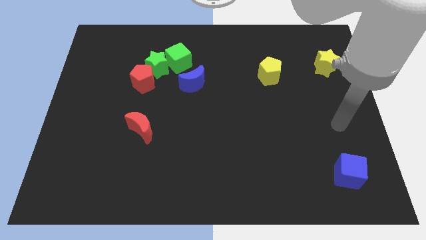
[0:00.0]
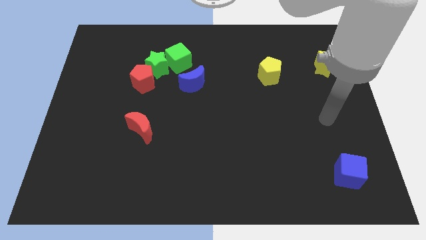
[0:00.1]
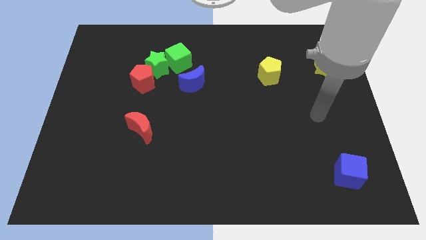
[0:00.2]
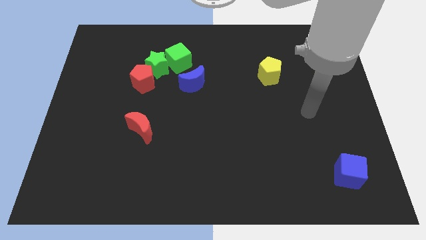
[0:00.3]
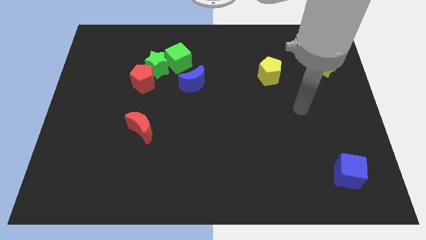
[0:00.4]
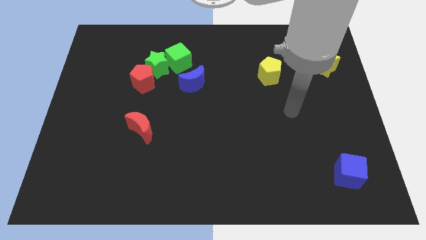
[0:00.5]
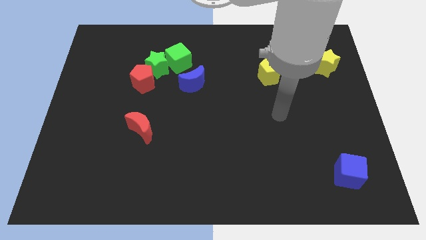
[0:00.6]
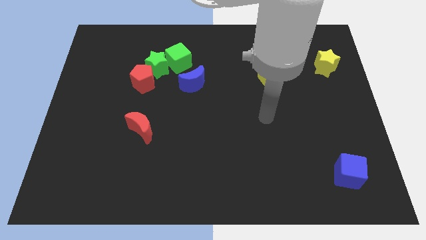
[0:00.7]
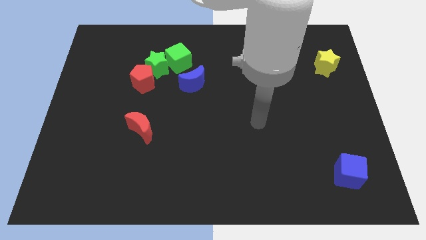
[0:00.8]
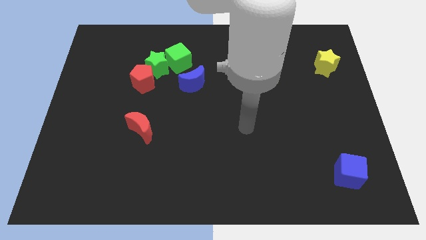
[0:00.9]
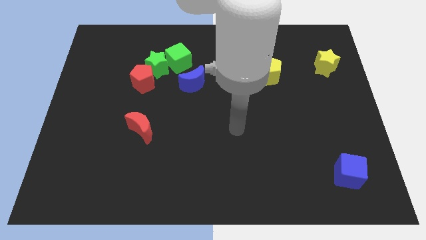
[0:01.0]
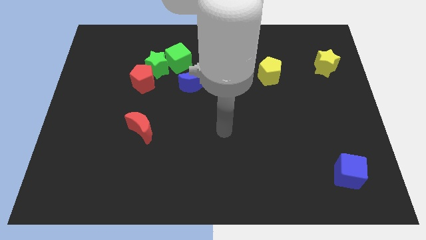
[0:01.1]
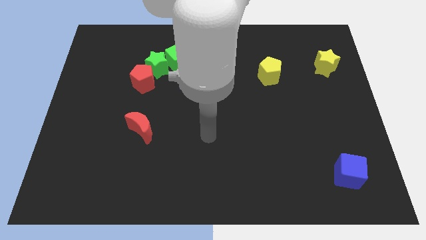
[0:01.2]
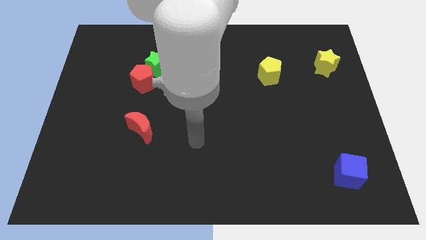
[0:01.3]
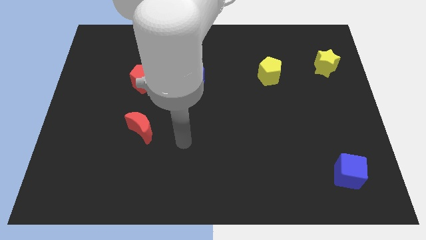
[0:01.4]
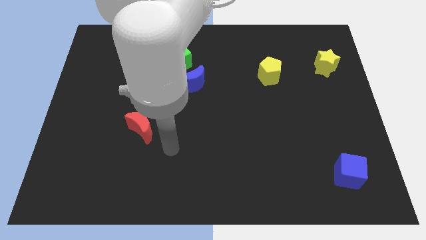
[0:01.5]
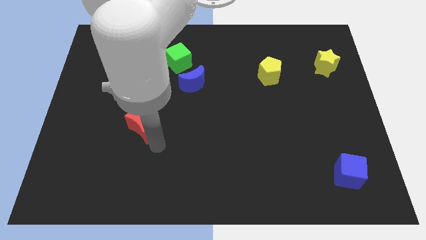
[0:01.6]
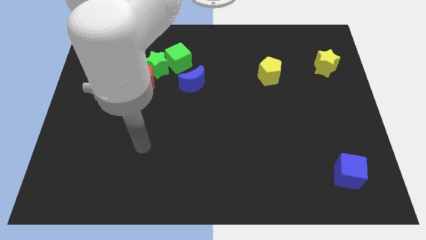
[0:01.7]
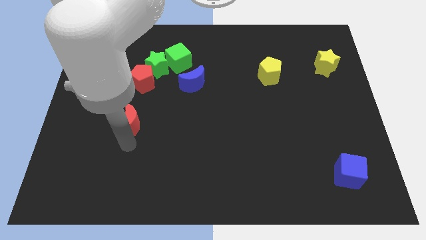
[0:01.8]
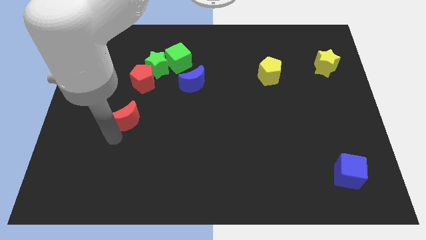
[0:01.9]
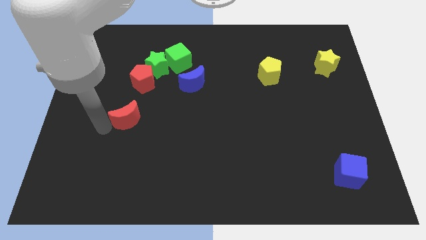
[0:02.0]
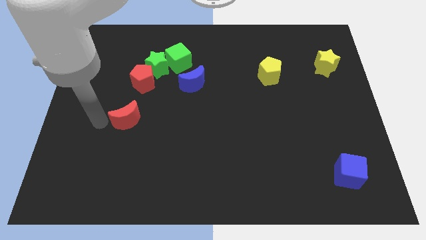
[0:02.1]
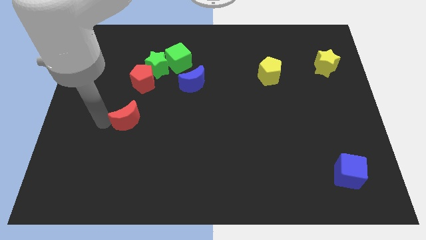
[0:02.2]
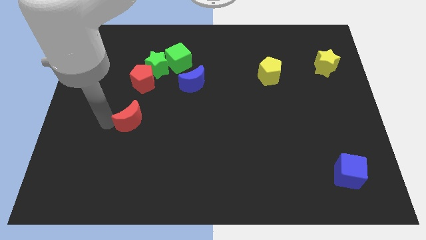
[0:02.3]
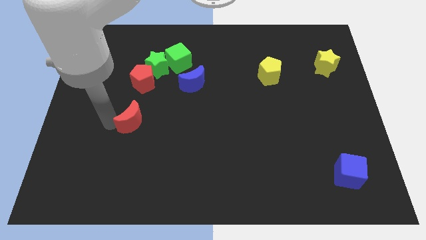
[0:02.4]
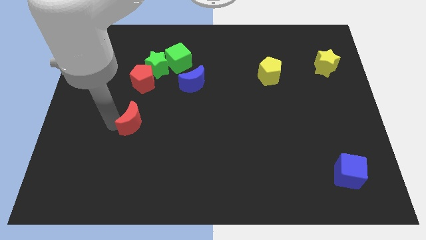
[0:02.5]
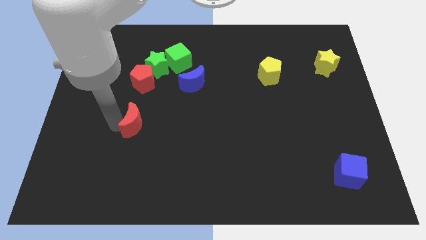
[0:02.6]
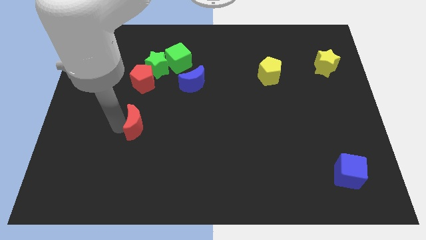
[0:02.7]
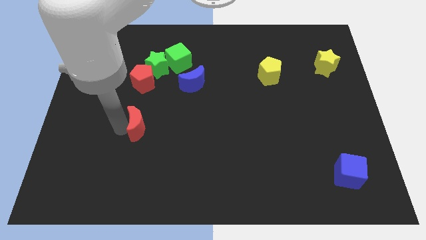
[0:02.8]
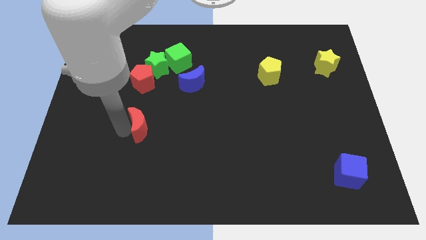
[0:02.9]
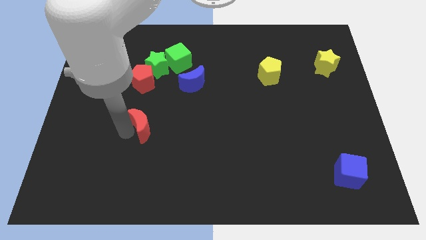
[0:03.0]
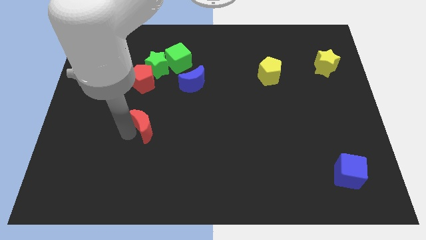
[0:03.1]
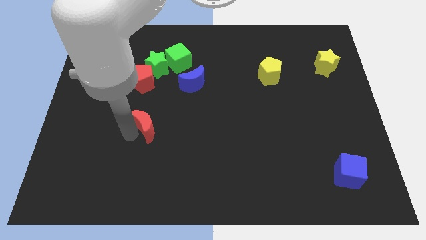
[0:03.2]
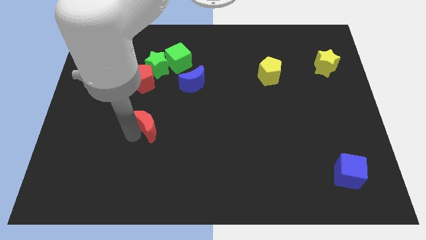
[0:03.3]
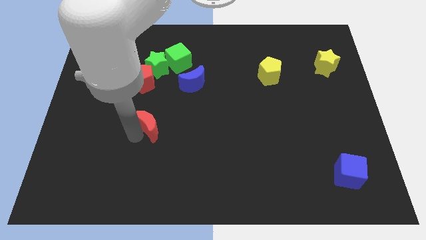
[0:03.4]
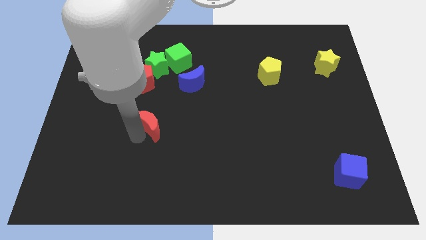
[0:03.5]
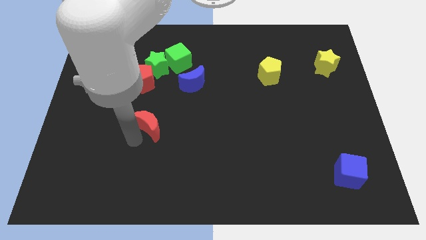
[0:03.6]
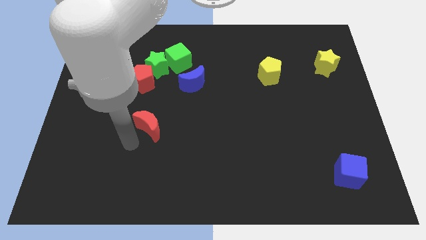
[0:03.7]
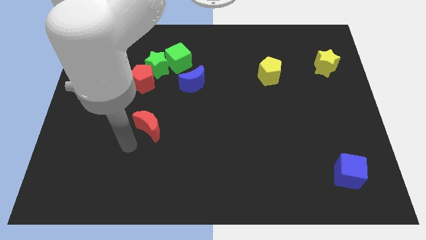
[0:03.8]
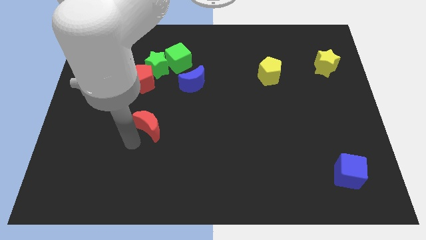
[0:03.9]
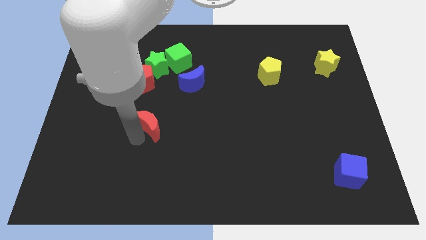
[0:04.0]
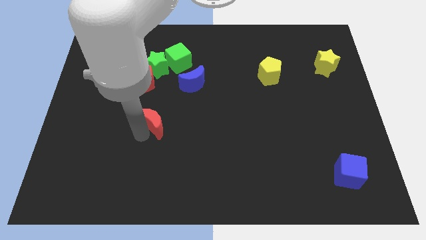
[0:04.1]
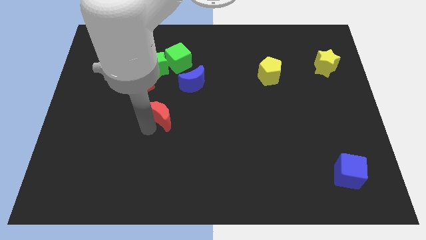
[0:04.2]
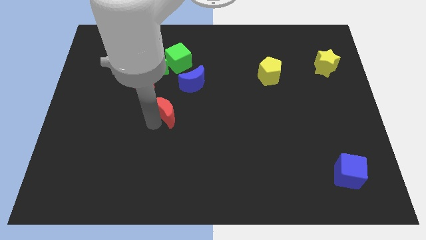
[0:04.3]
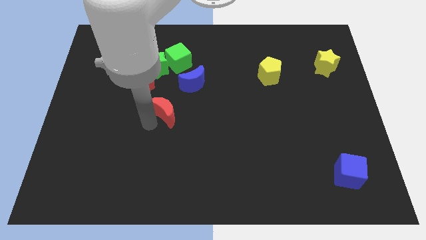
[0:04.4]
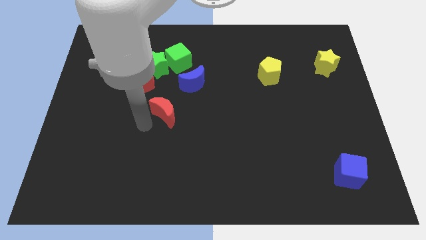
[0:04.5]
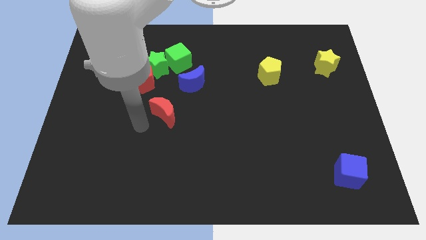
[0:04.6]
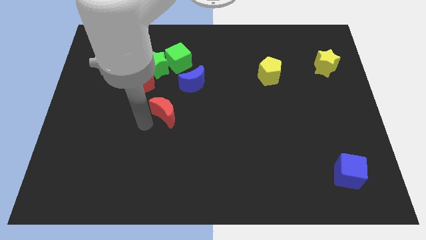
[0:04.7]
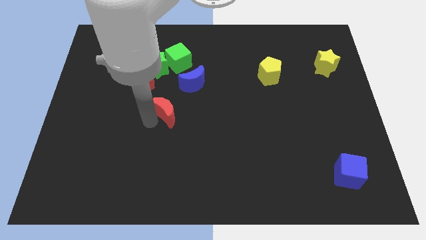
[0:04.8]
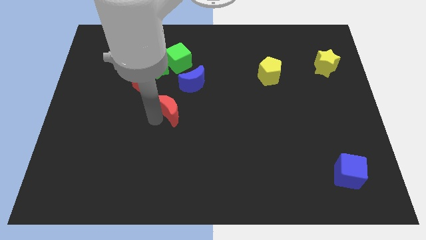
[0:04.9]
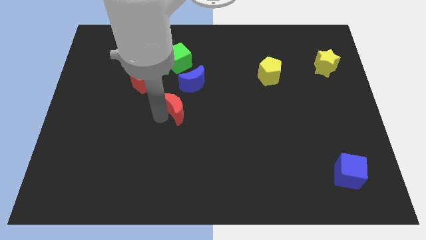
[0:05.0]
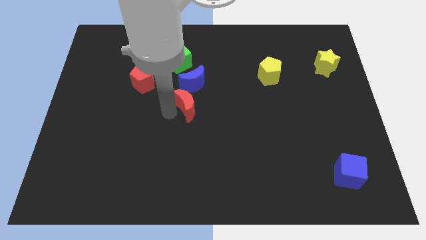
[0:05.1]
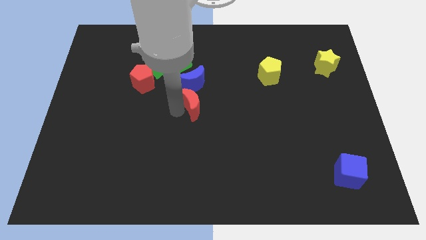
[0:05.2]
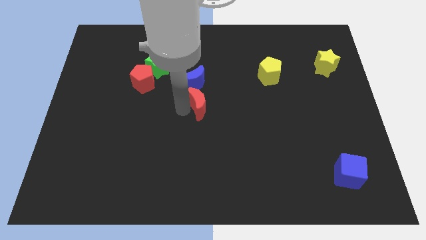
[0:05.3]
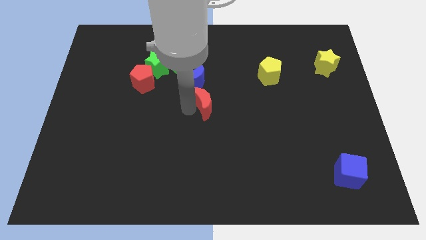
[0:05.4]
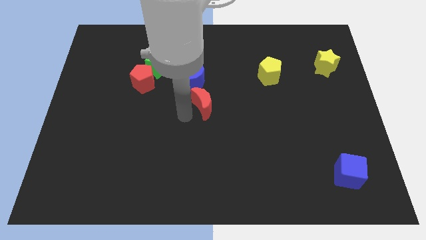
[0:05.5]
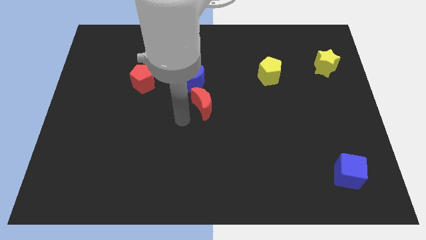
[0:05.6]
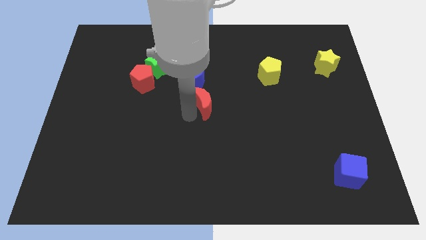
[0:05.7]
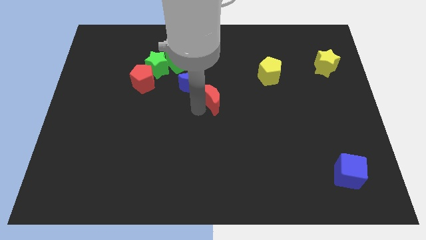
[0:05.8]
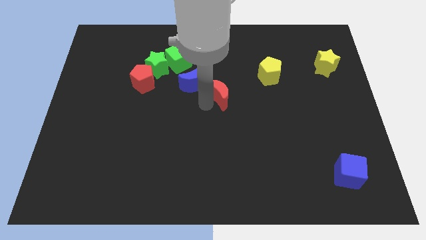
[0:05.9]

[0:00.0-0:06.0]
push the red moon just right of the blue moon

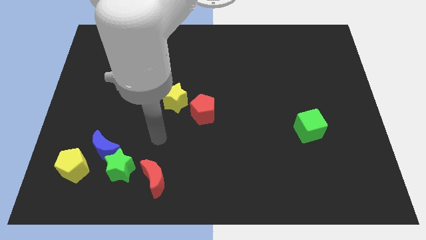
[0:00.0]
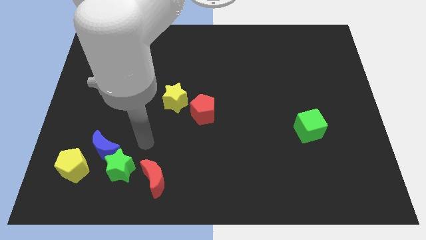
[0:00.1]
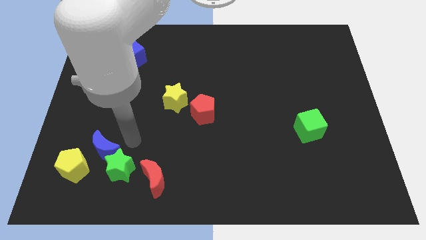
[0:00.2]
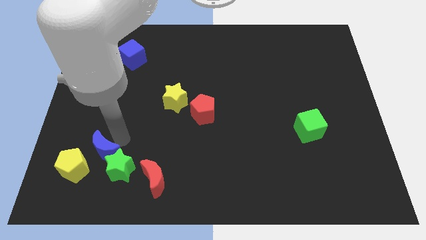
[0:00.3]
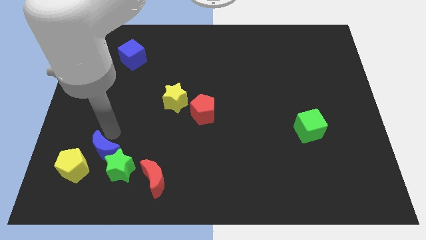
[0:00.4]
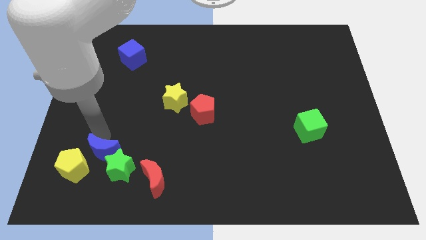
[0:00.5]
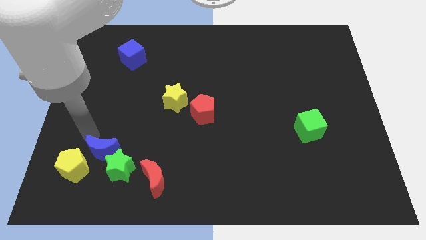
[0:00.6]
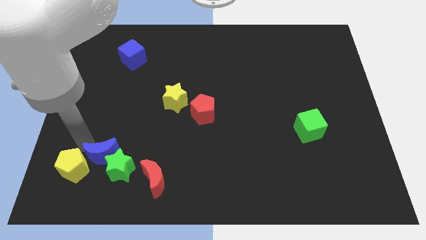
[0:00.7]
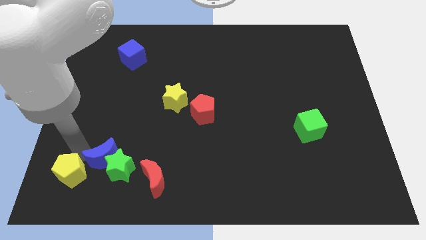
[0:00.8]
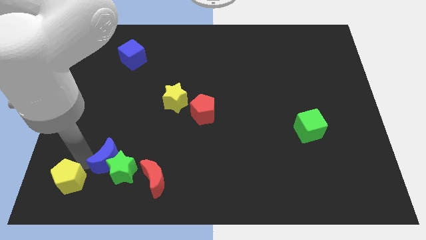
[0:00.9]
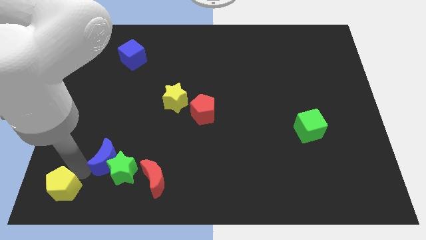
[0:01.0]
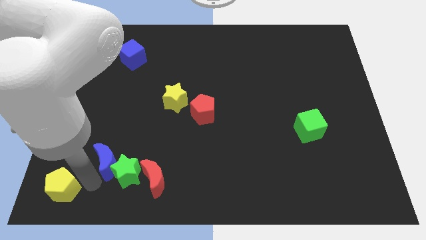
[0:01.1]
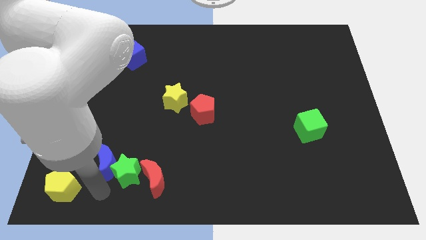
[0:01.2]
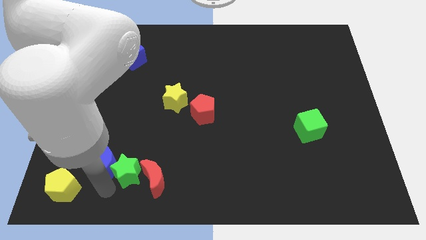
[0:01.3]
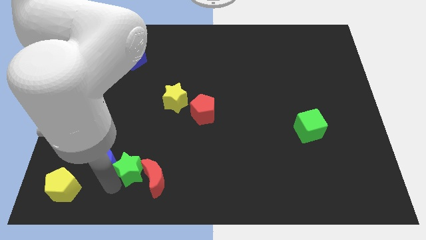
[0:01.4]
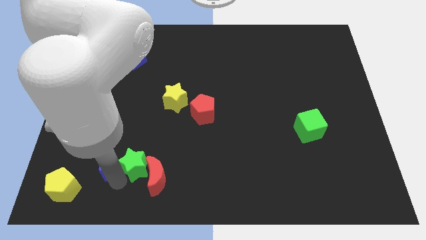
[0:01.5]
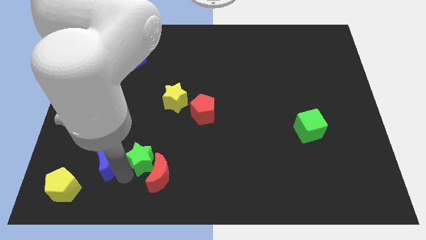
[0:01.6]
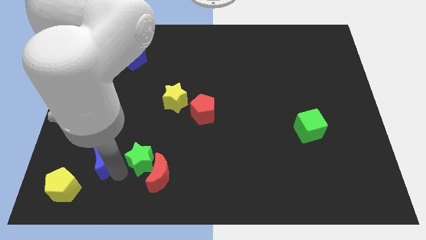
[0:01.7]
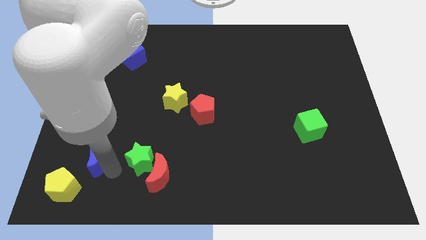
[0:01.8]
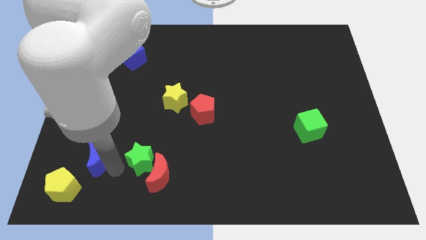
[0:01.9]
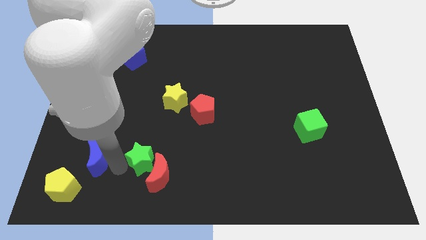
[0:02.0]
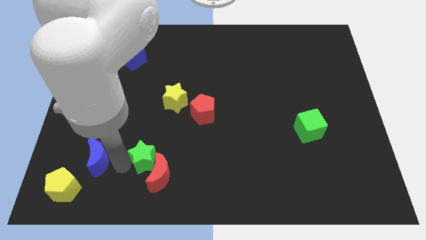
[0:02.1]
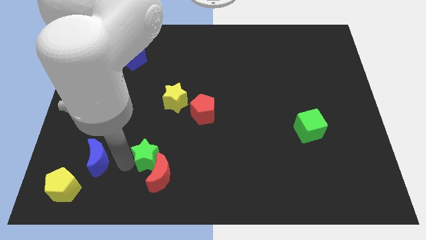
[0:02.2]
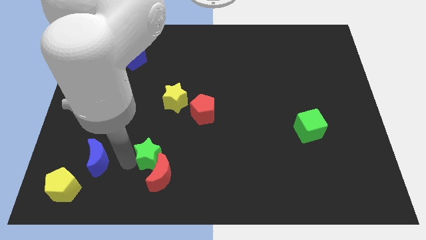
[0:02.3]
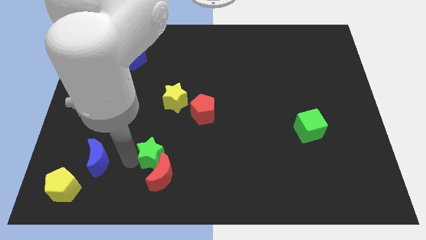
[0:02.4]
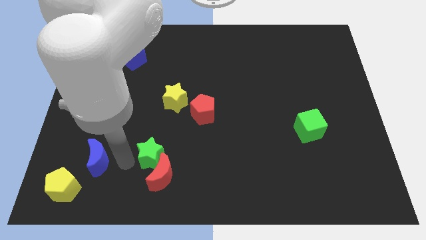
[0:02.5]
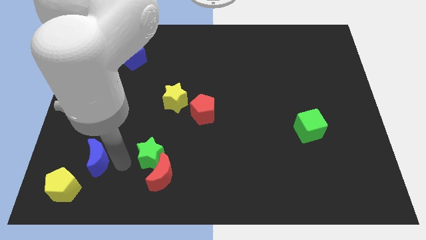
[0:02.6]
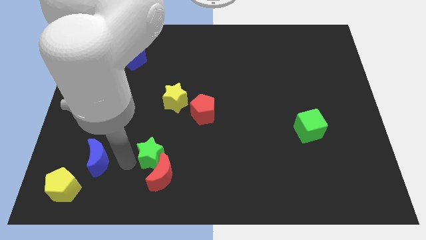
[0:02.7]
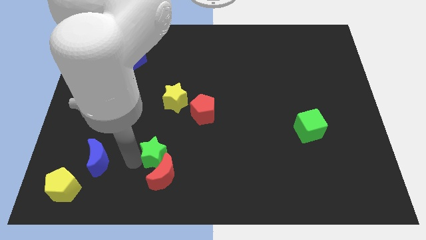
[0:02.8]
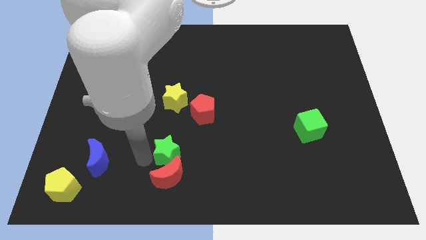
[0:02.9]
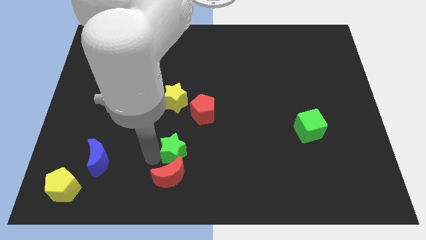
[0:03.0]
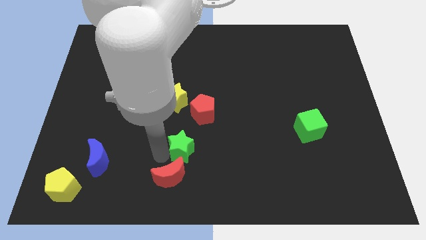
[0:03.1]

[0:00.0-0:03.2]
push the green star to the bottom side of the red pentagon
